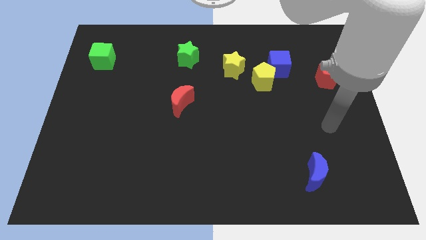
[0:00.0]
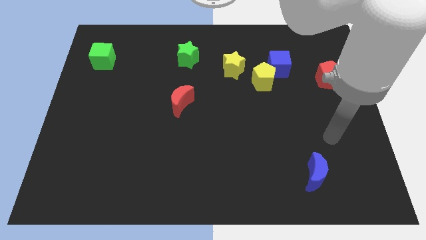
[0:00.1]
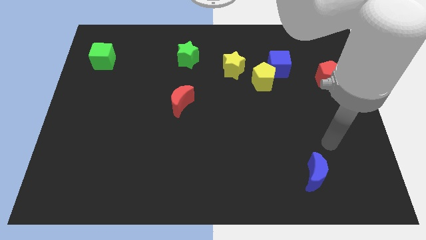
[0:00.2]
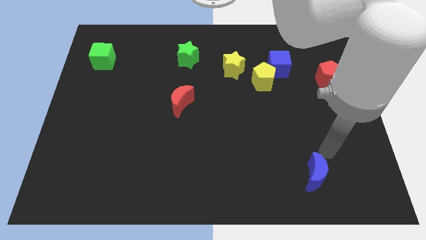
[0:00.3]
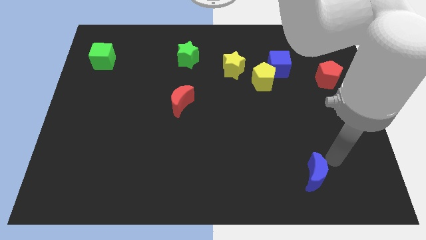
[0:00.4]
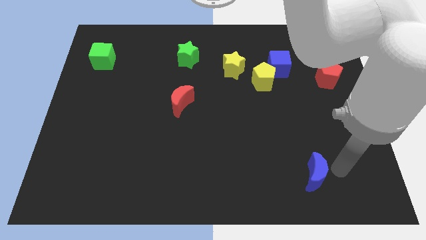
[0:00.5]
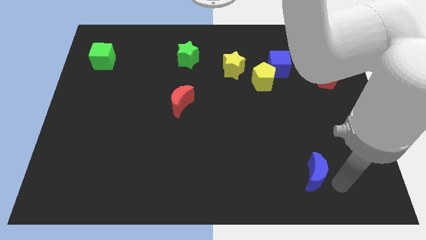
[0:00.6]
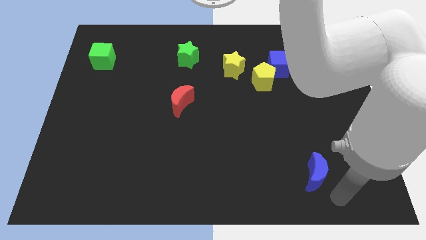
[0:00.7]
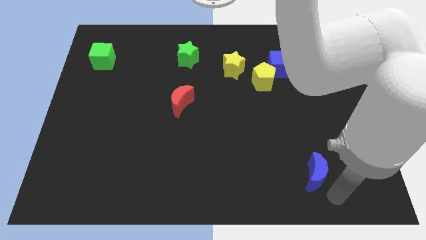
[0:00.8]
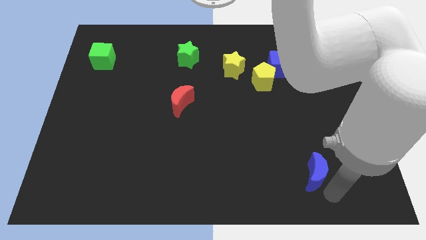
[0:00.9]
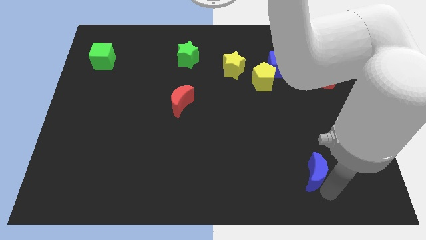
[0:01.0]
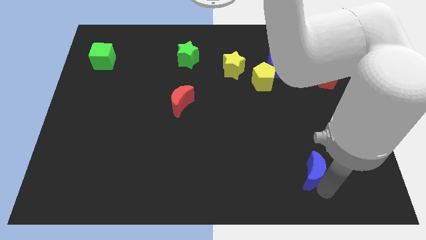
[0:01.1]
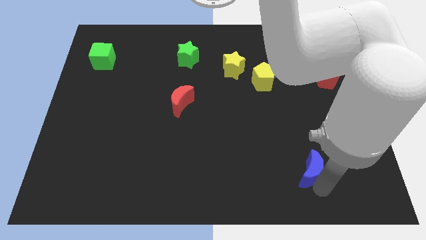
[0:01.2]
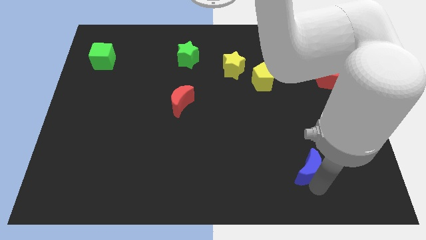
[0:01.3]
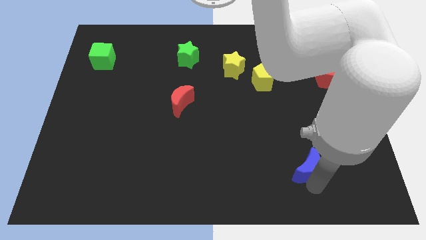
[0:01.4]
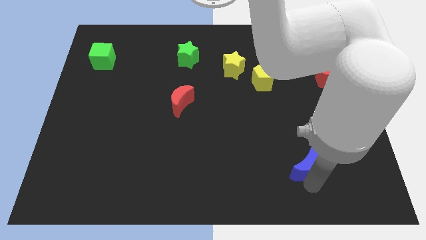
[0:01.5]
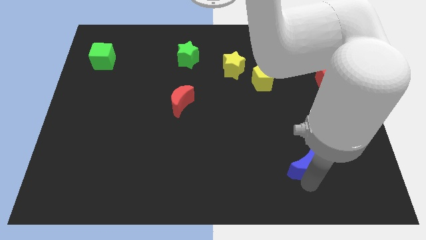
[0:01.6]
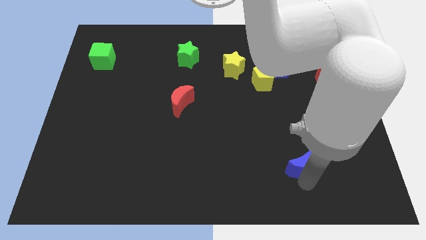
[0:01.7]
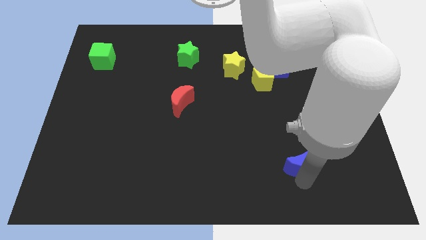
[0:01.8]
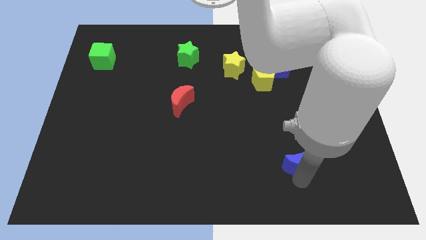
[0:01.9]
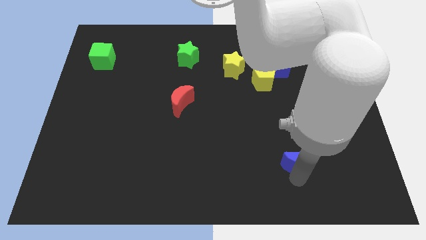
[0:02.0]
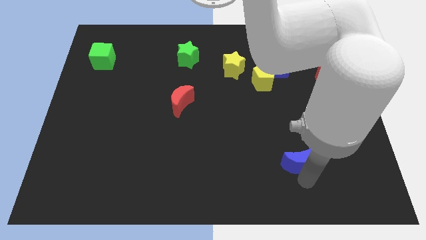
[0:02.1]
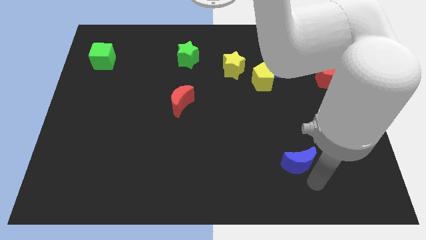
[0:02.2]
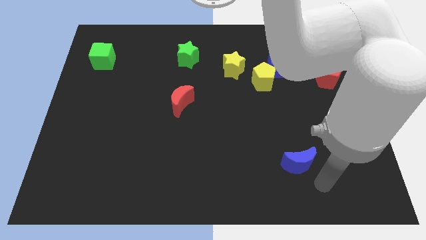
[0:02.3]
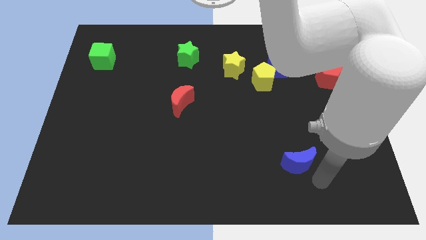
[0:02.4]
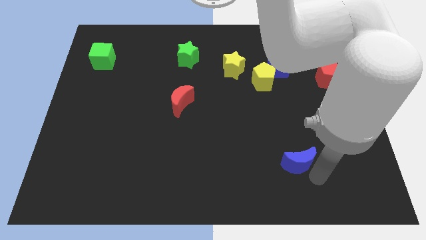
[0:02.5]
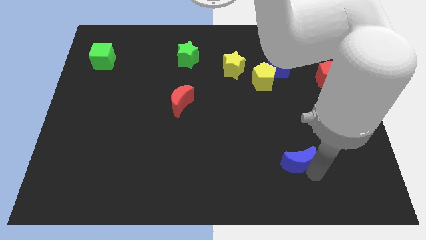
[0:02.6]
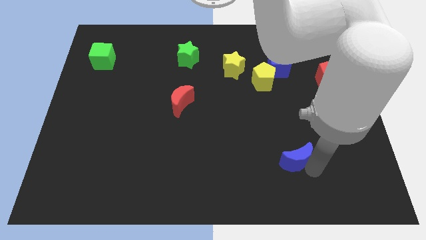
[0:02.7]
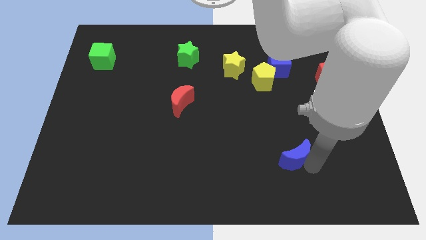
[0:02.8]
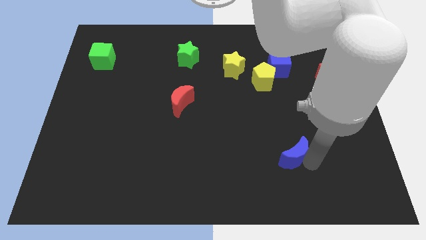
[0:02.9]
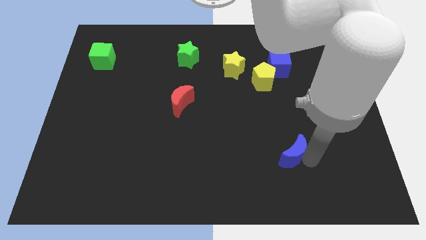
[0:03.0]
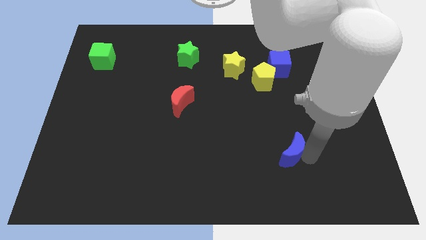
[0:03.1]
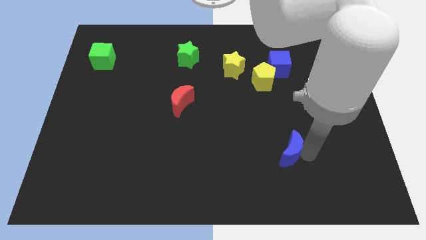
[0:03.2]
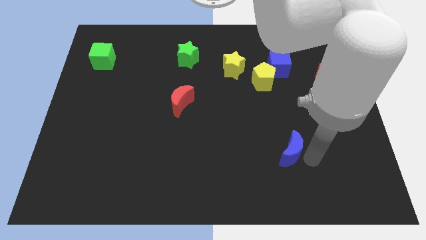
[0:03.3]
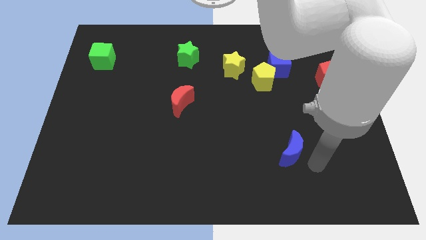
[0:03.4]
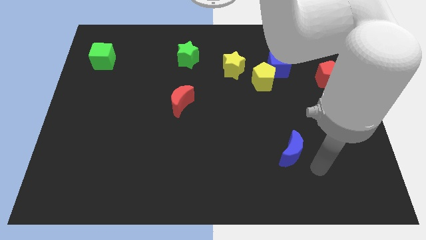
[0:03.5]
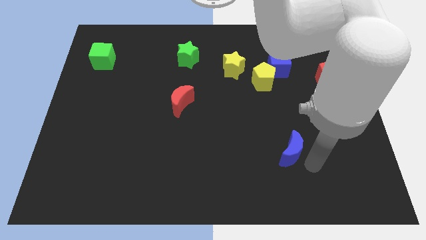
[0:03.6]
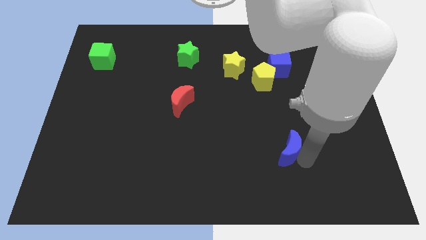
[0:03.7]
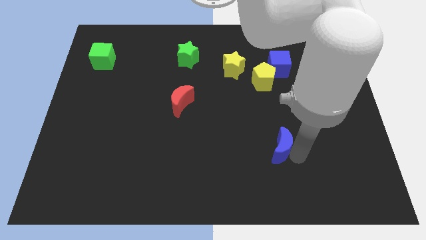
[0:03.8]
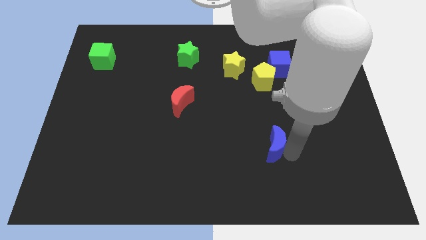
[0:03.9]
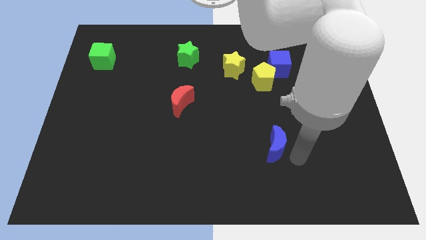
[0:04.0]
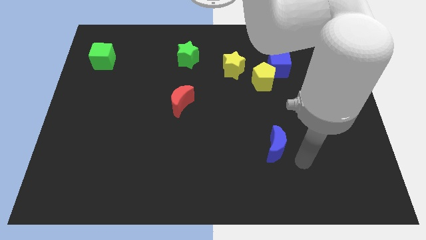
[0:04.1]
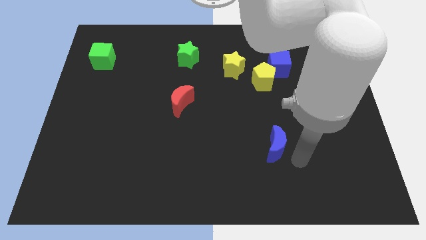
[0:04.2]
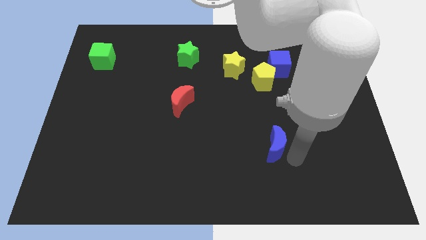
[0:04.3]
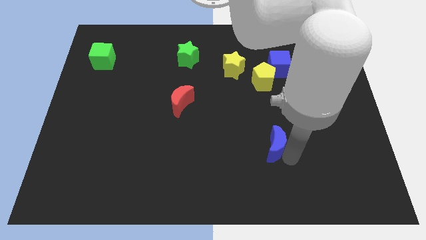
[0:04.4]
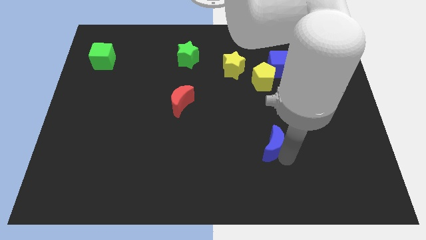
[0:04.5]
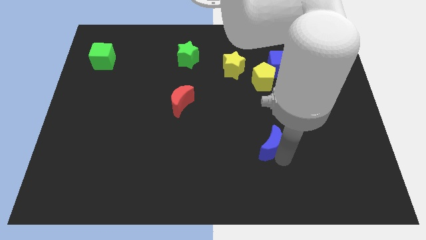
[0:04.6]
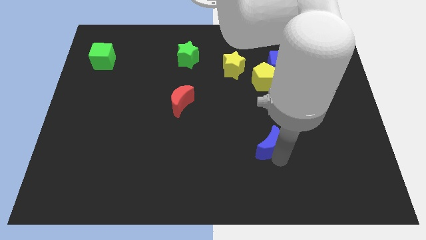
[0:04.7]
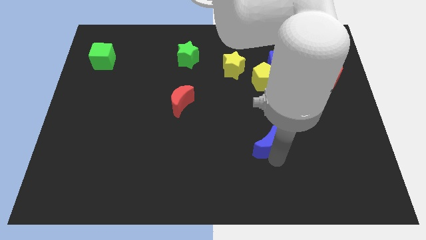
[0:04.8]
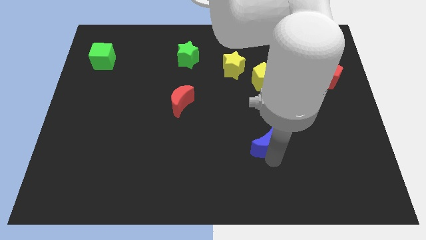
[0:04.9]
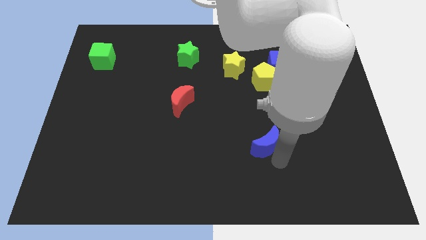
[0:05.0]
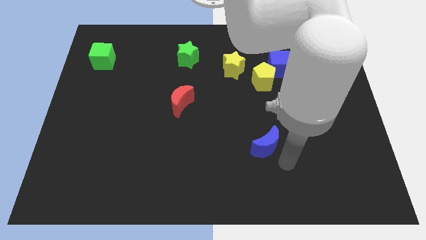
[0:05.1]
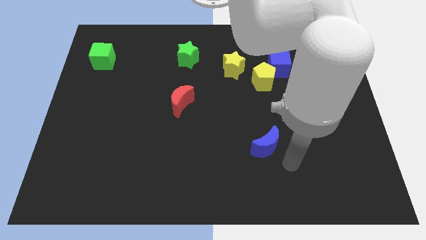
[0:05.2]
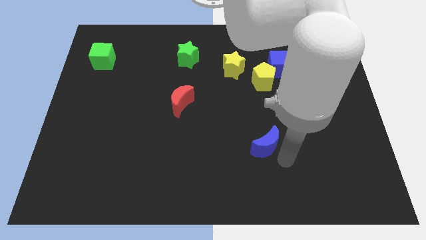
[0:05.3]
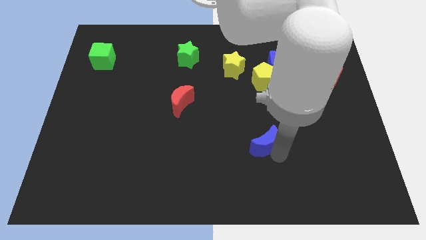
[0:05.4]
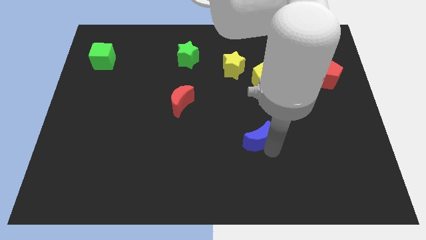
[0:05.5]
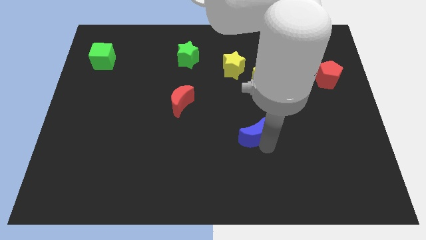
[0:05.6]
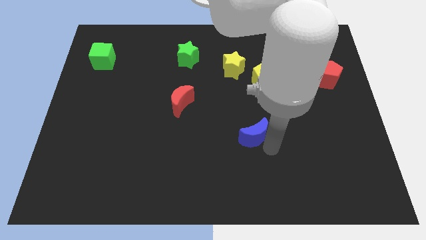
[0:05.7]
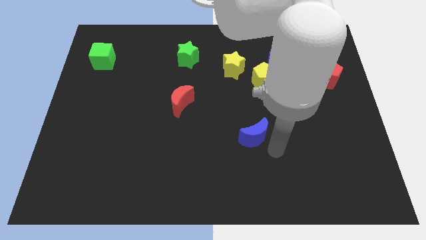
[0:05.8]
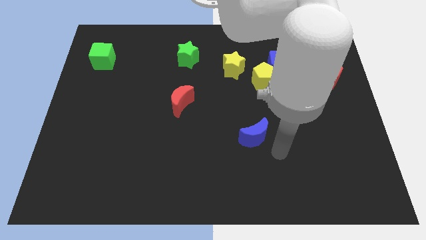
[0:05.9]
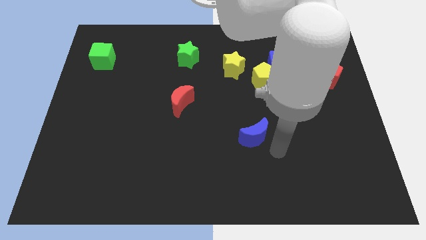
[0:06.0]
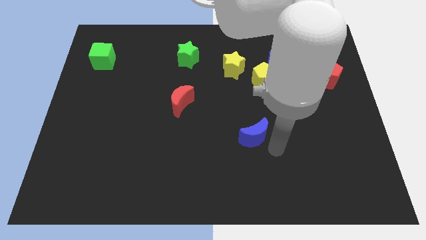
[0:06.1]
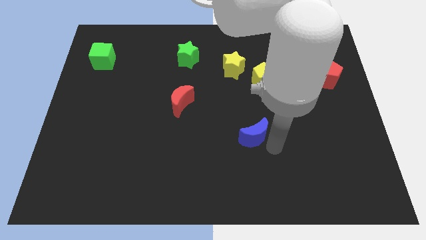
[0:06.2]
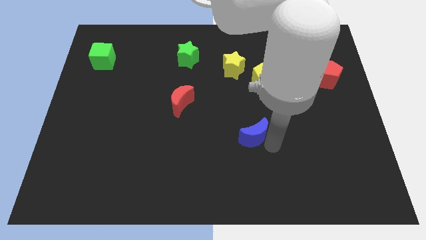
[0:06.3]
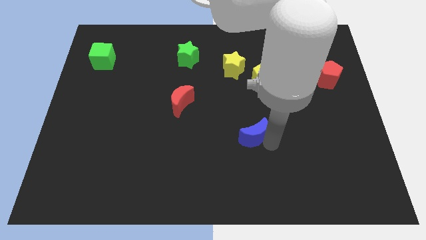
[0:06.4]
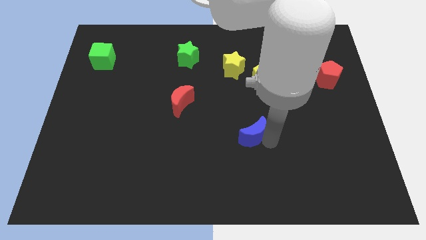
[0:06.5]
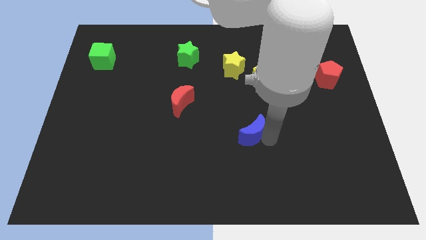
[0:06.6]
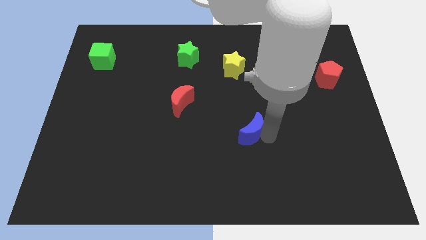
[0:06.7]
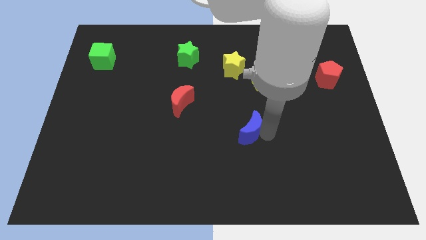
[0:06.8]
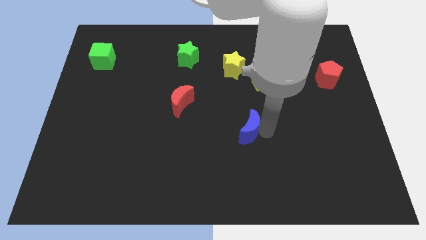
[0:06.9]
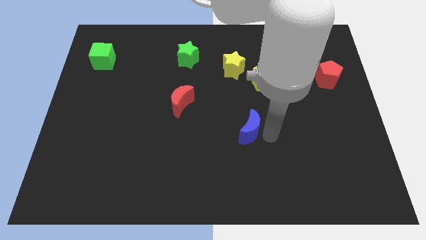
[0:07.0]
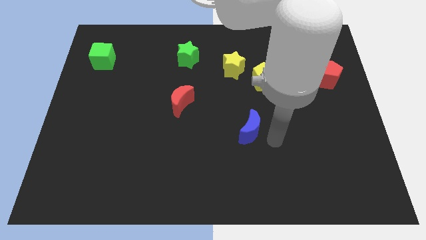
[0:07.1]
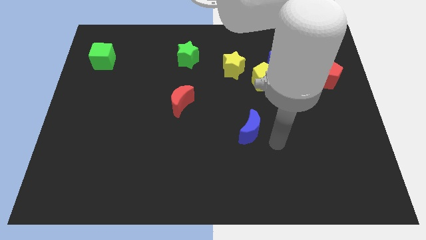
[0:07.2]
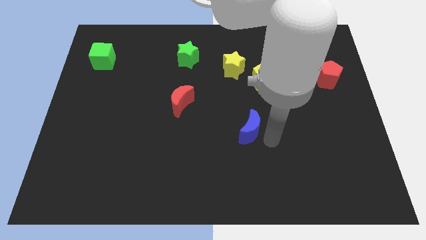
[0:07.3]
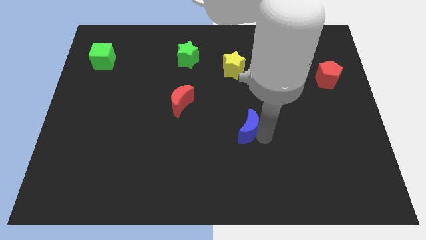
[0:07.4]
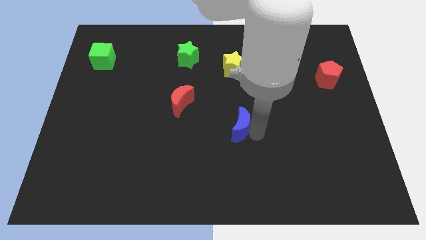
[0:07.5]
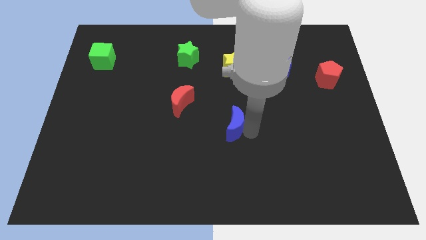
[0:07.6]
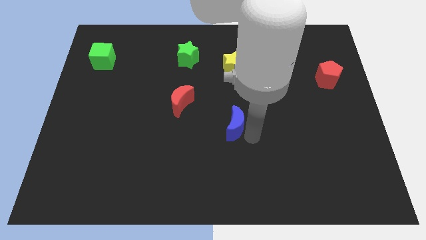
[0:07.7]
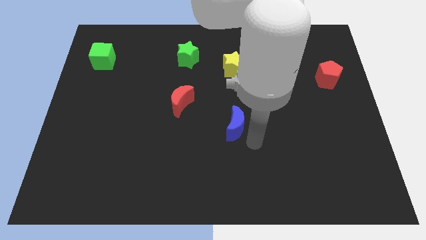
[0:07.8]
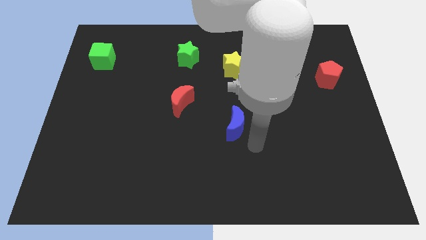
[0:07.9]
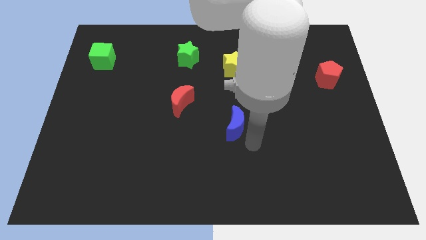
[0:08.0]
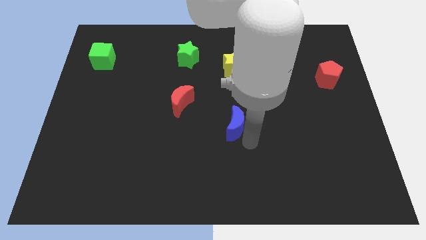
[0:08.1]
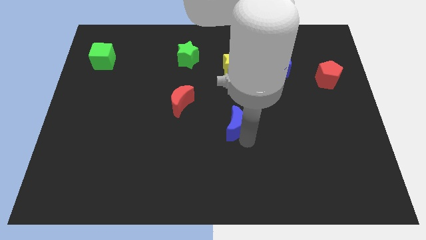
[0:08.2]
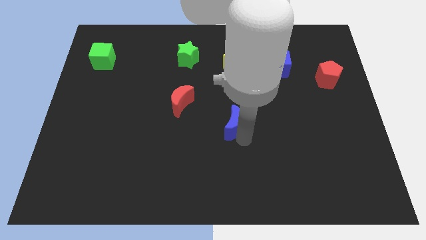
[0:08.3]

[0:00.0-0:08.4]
push the blue moon diagonally up and left

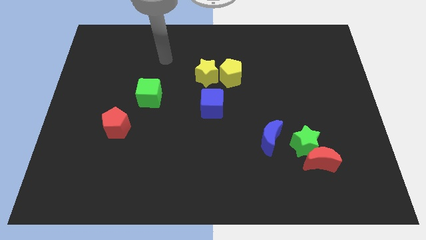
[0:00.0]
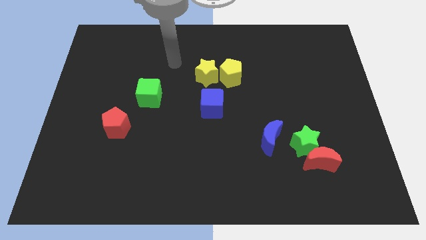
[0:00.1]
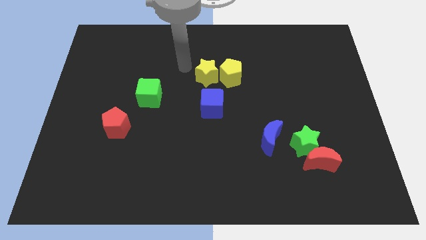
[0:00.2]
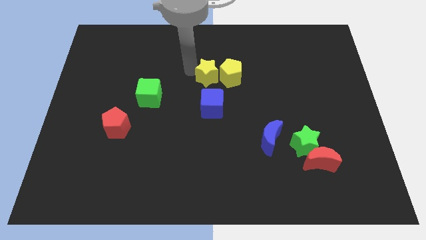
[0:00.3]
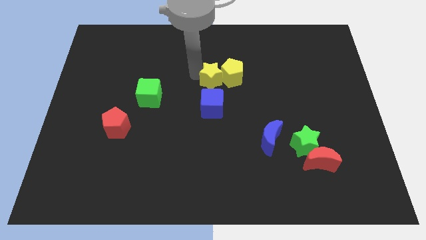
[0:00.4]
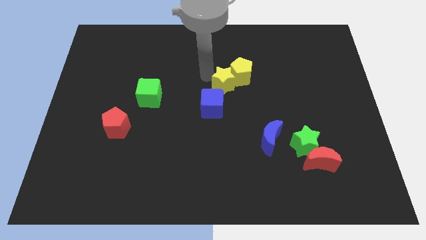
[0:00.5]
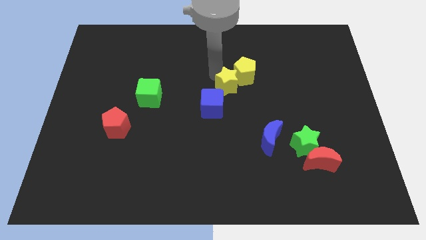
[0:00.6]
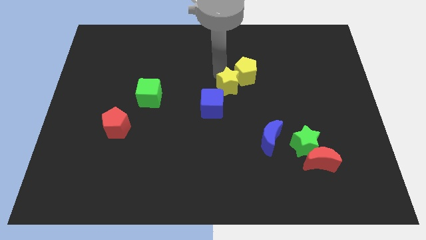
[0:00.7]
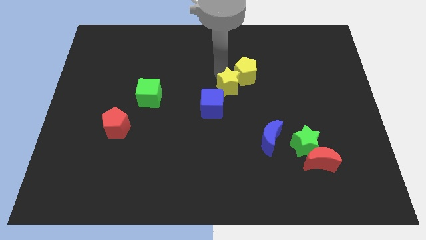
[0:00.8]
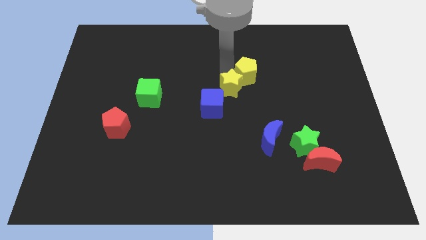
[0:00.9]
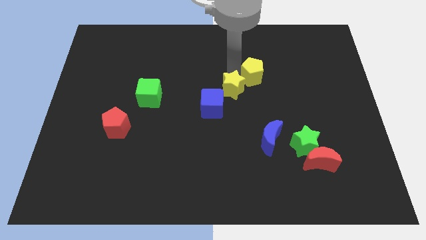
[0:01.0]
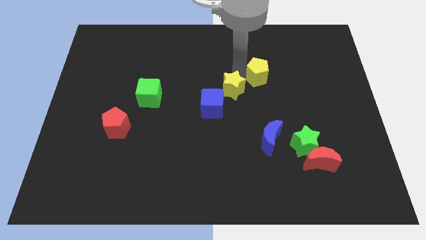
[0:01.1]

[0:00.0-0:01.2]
move the yellow pentagon a little to the right
